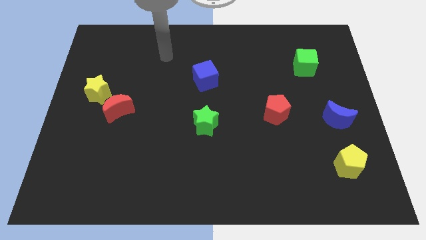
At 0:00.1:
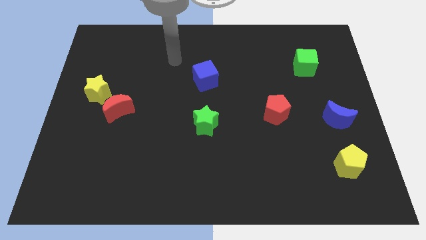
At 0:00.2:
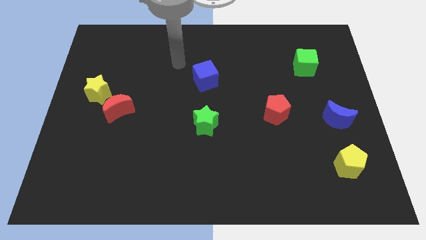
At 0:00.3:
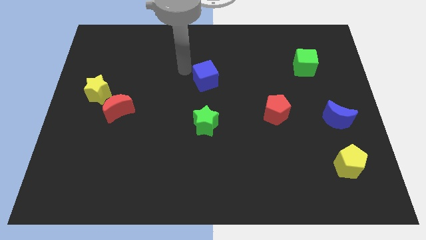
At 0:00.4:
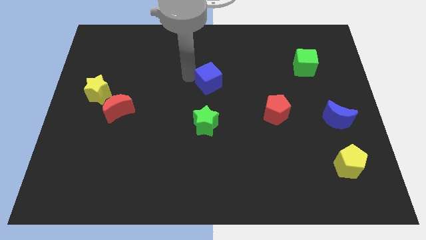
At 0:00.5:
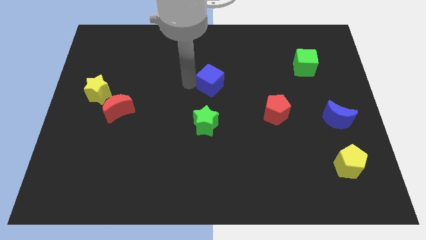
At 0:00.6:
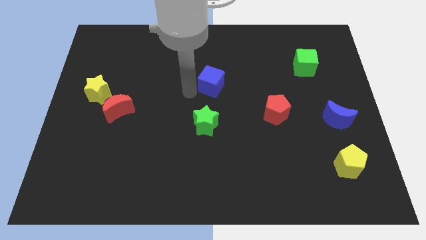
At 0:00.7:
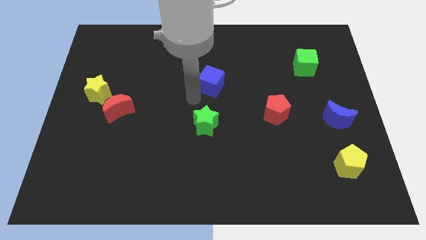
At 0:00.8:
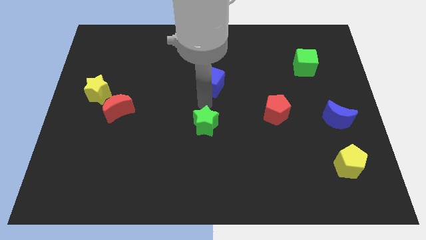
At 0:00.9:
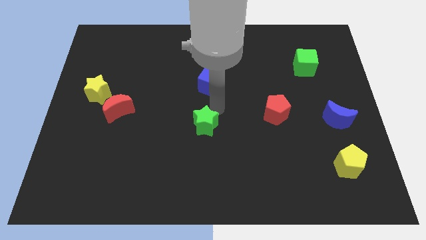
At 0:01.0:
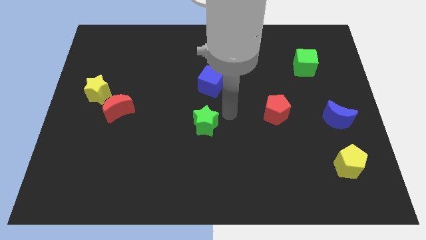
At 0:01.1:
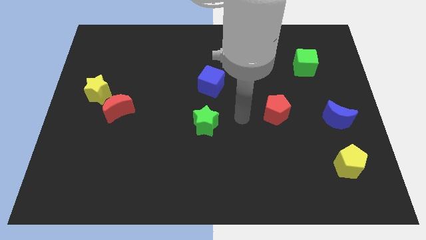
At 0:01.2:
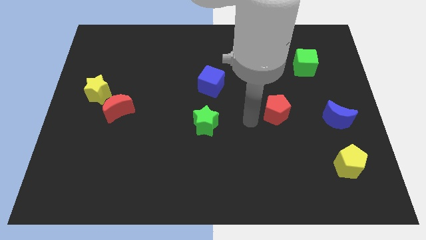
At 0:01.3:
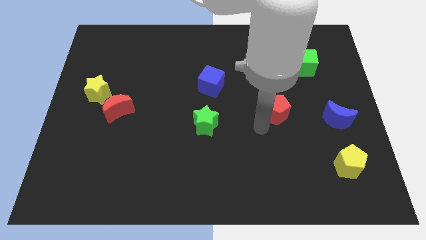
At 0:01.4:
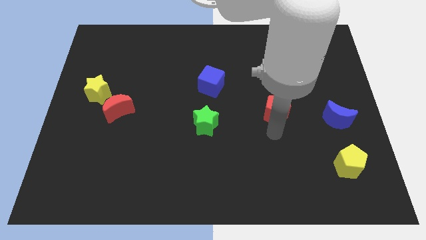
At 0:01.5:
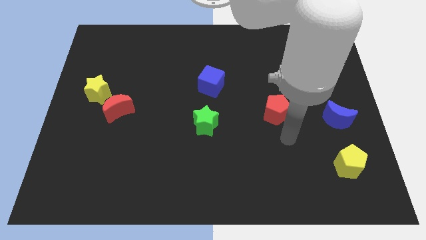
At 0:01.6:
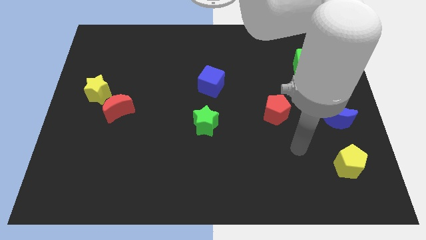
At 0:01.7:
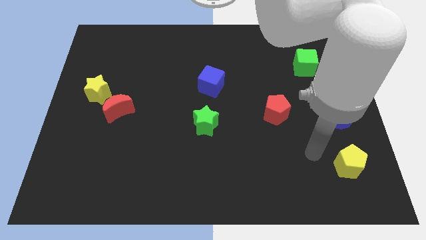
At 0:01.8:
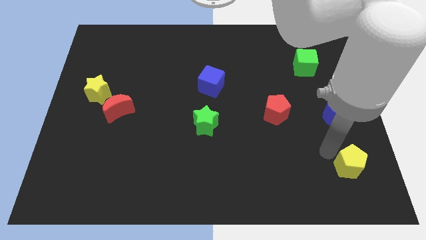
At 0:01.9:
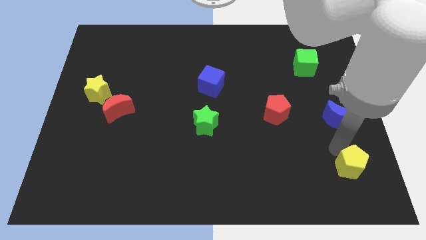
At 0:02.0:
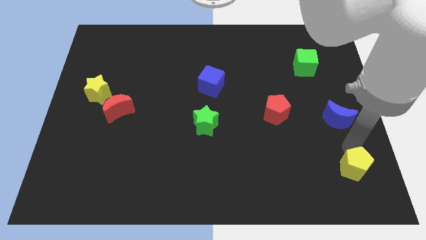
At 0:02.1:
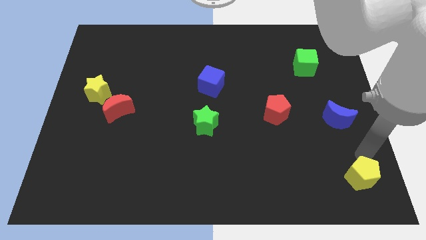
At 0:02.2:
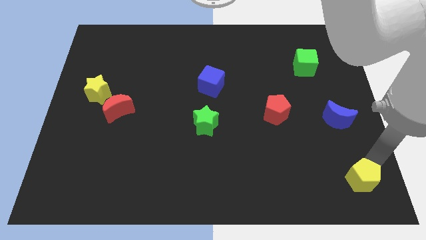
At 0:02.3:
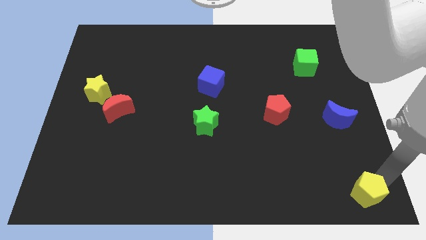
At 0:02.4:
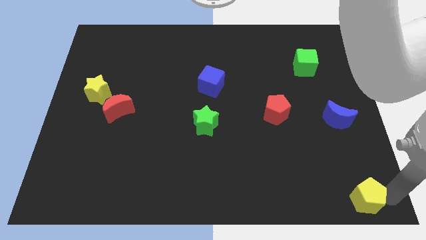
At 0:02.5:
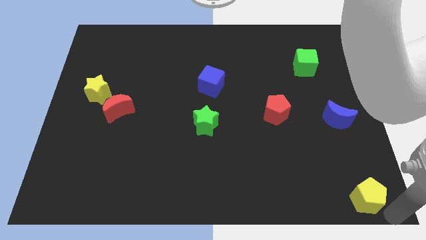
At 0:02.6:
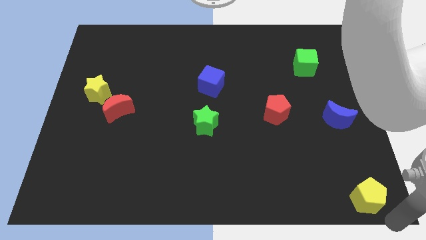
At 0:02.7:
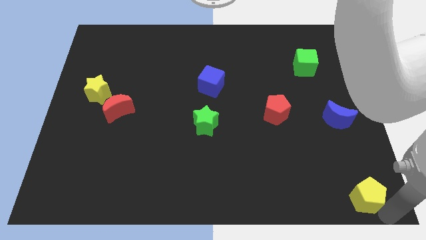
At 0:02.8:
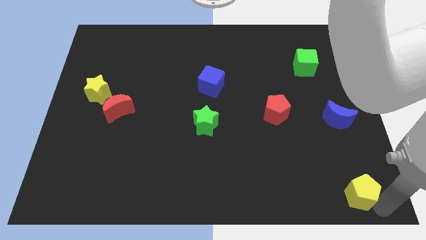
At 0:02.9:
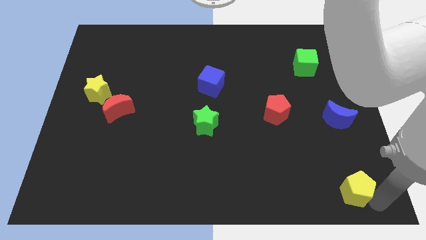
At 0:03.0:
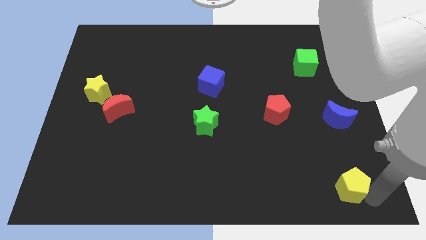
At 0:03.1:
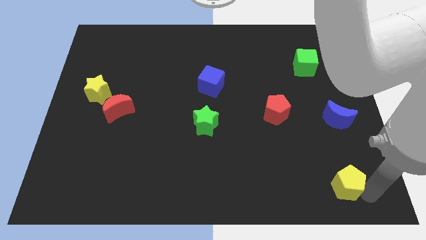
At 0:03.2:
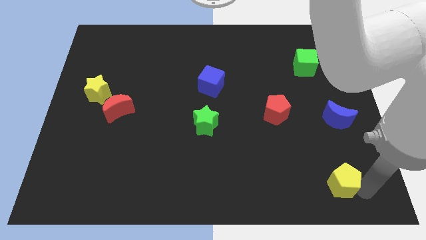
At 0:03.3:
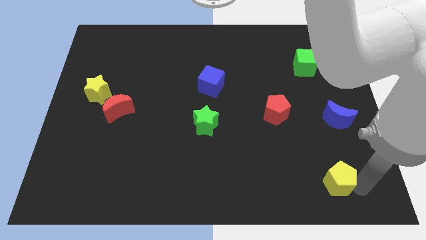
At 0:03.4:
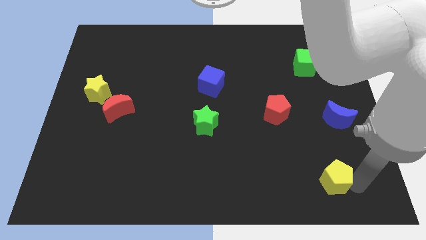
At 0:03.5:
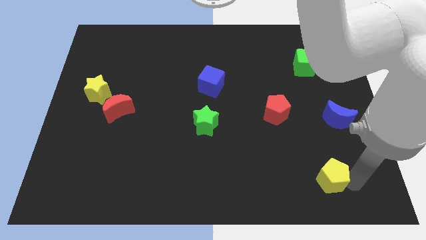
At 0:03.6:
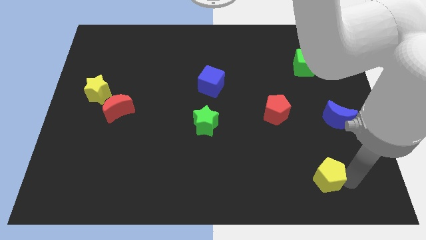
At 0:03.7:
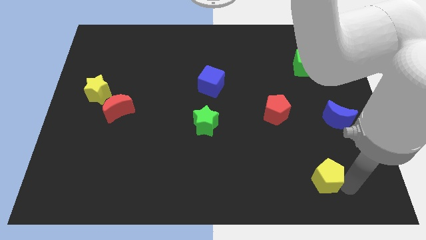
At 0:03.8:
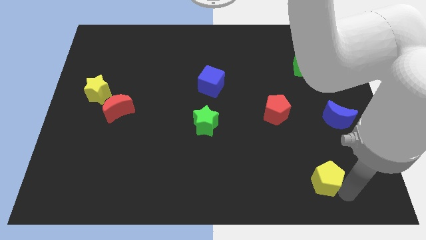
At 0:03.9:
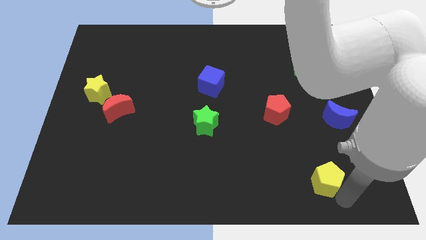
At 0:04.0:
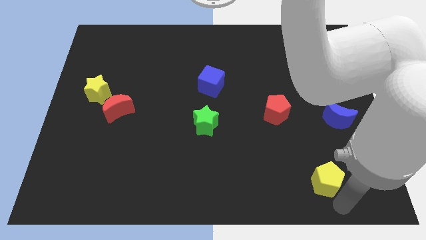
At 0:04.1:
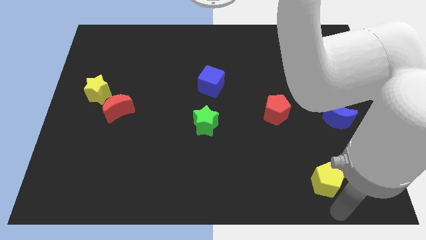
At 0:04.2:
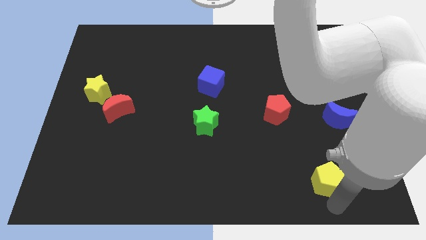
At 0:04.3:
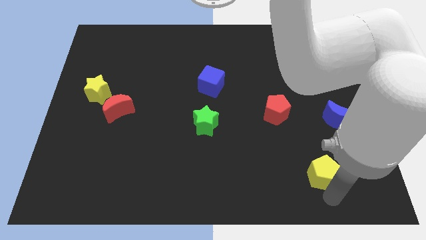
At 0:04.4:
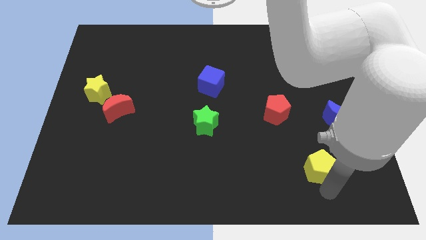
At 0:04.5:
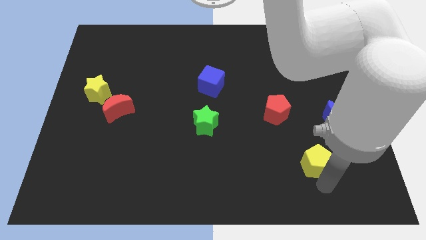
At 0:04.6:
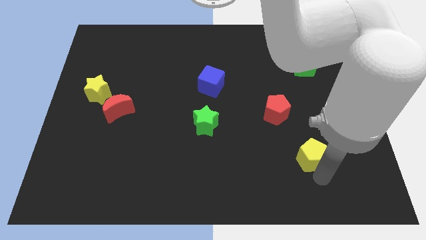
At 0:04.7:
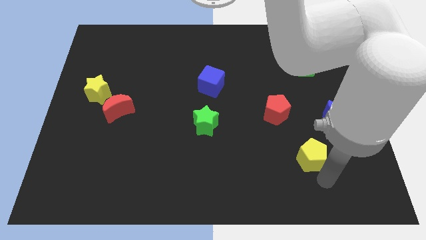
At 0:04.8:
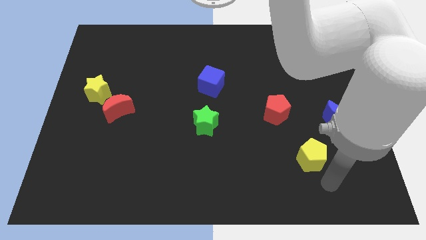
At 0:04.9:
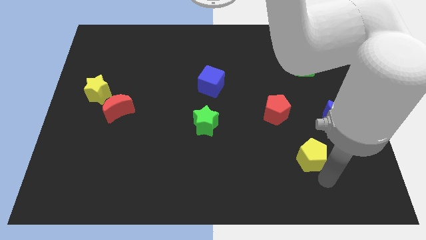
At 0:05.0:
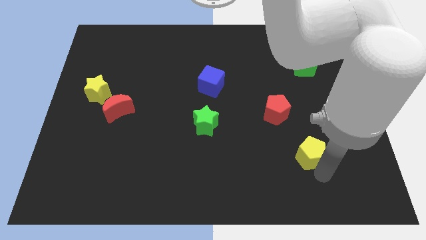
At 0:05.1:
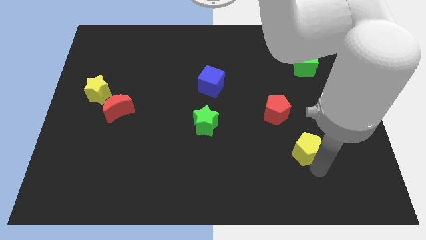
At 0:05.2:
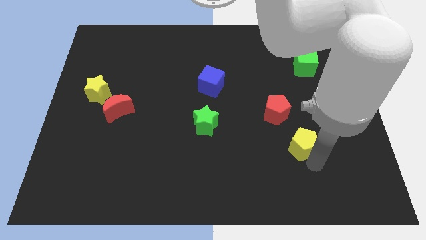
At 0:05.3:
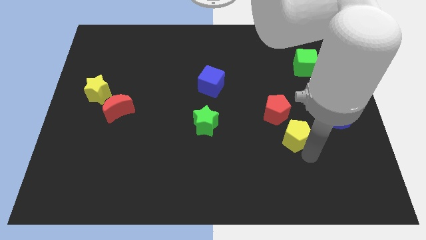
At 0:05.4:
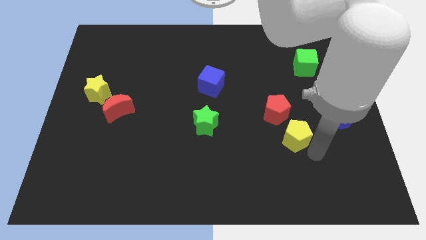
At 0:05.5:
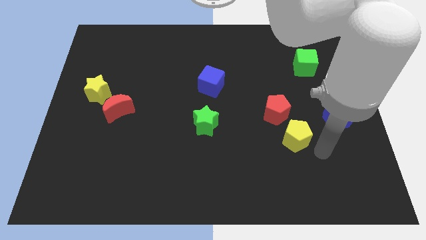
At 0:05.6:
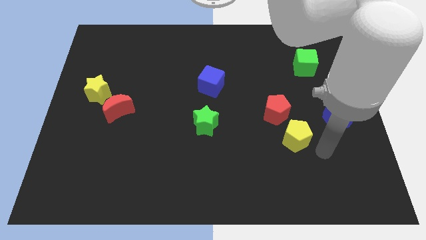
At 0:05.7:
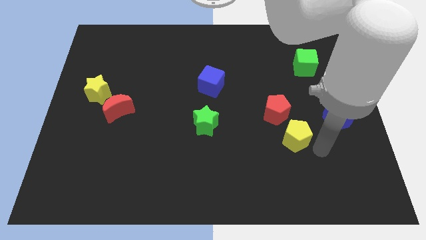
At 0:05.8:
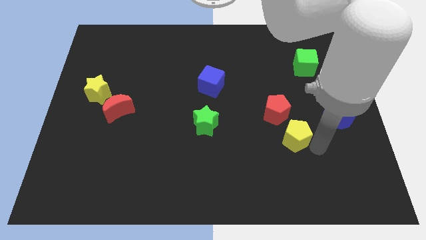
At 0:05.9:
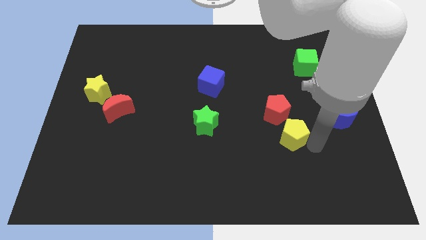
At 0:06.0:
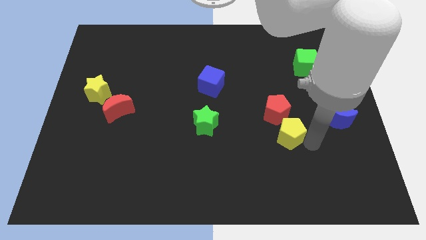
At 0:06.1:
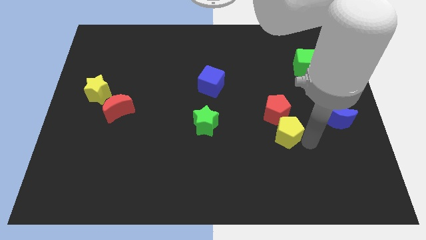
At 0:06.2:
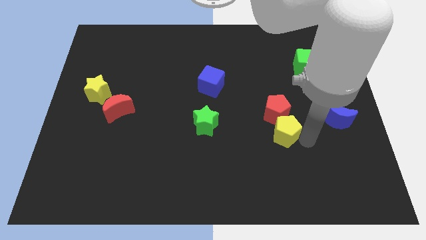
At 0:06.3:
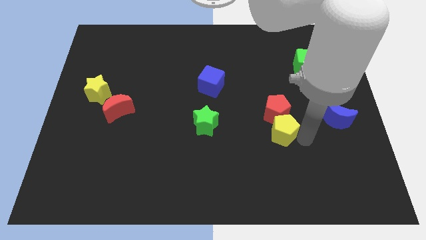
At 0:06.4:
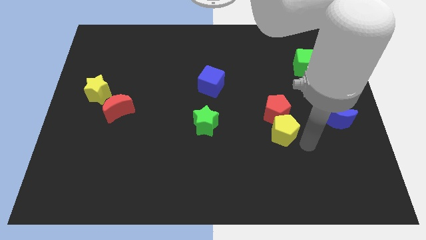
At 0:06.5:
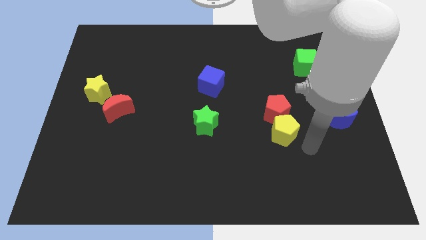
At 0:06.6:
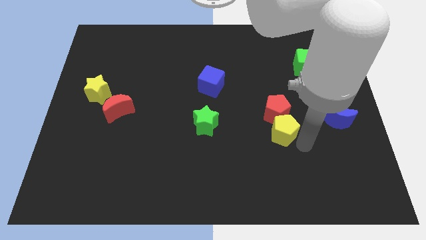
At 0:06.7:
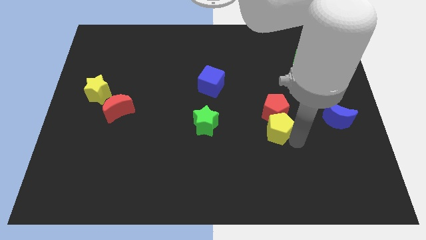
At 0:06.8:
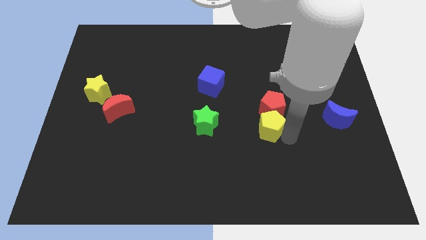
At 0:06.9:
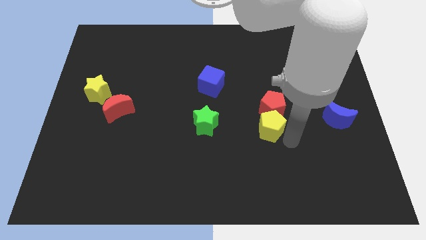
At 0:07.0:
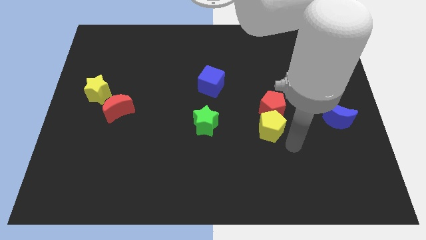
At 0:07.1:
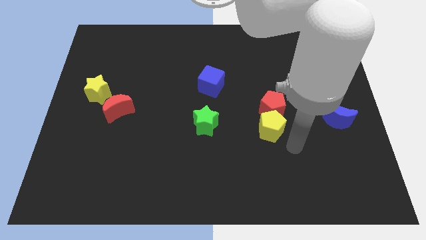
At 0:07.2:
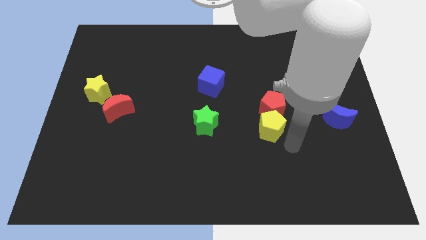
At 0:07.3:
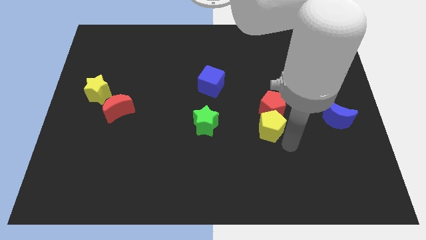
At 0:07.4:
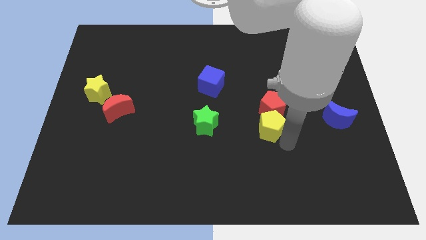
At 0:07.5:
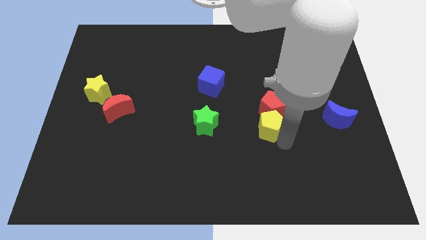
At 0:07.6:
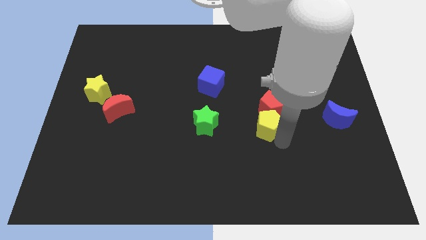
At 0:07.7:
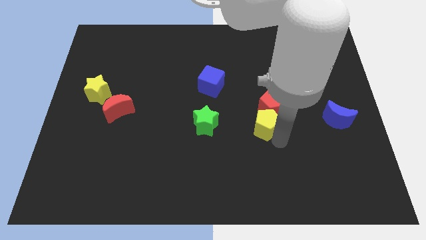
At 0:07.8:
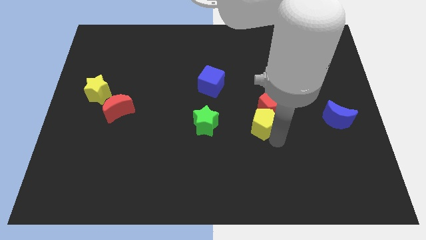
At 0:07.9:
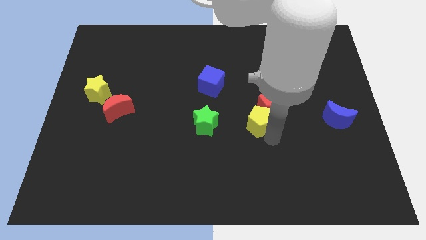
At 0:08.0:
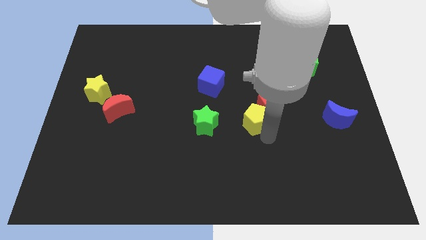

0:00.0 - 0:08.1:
move the yellow pentagon upwards and left

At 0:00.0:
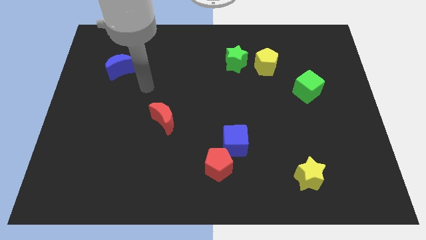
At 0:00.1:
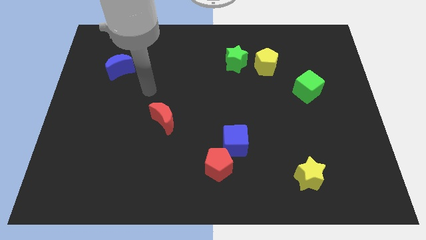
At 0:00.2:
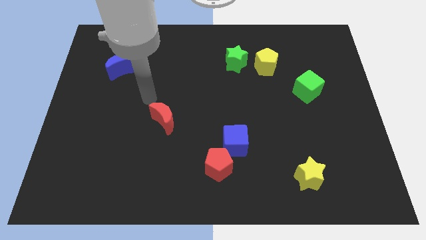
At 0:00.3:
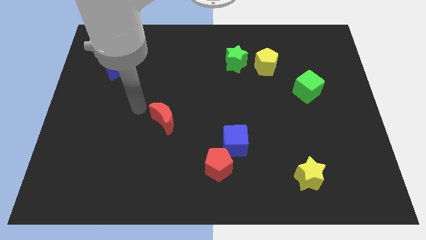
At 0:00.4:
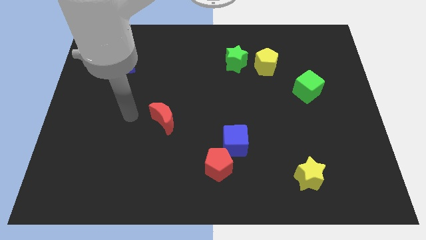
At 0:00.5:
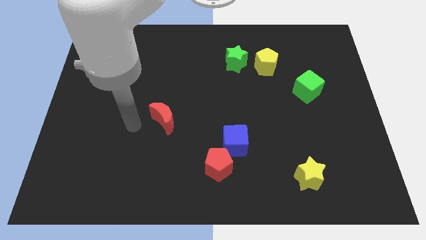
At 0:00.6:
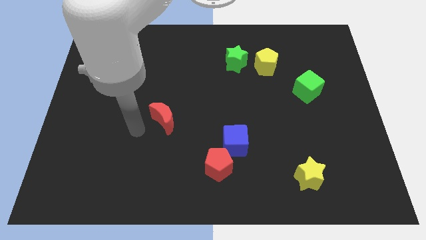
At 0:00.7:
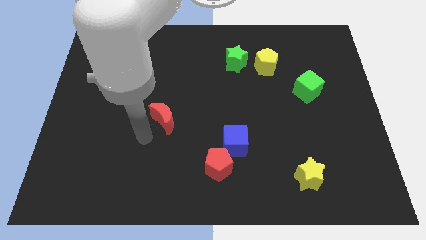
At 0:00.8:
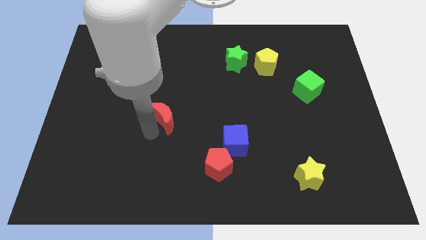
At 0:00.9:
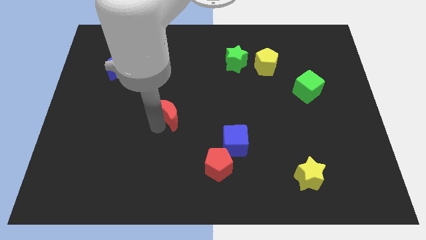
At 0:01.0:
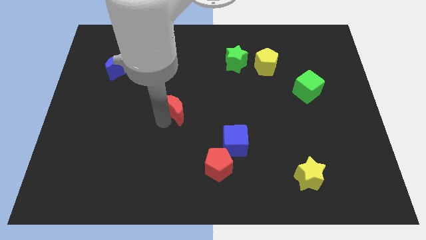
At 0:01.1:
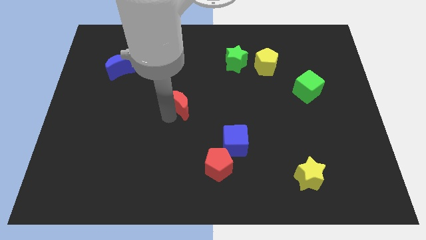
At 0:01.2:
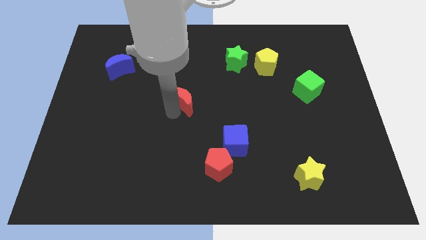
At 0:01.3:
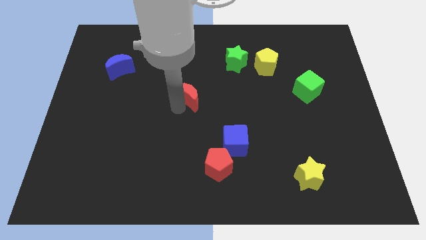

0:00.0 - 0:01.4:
push the red moon a little bit upwards and right diagonally
